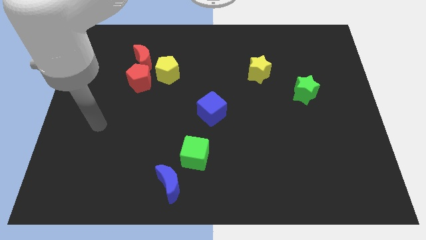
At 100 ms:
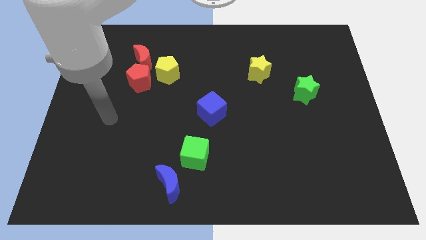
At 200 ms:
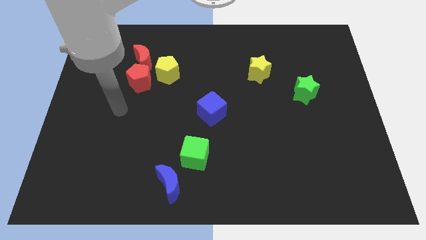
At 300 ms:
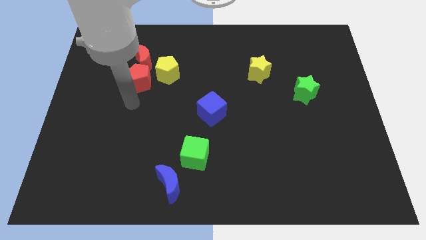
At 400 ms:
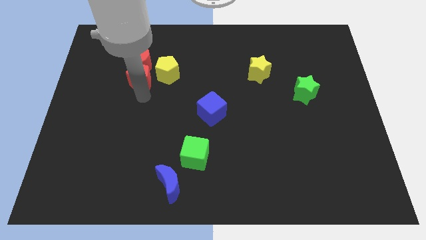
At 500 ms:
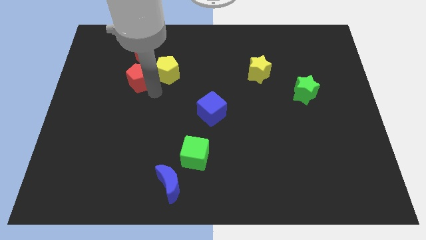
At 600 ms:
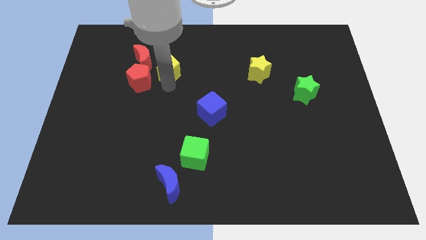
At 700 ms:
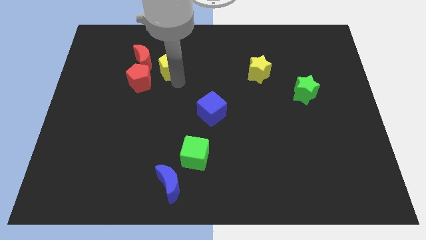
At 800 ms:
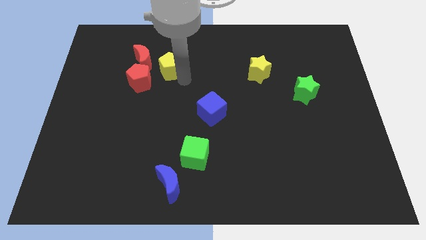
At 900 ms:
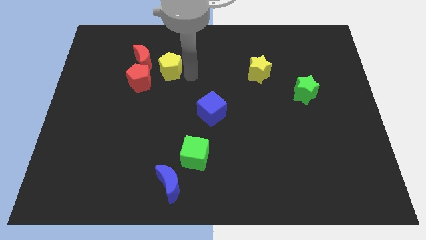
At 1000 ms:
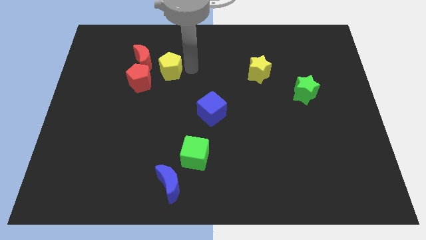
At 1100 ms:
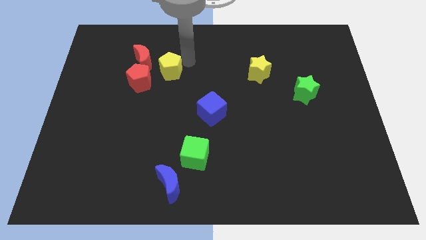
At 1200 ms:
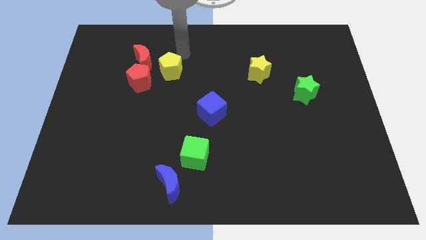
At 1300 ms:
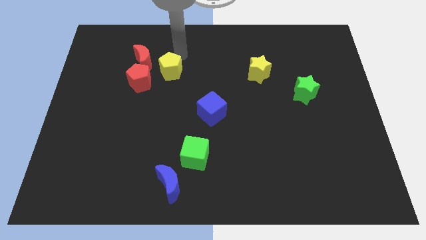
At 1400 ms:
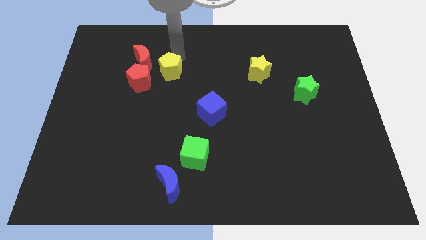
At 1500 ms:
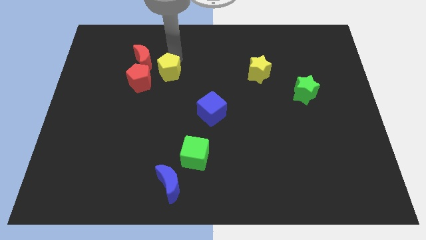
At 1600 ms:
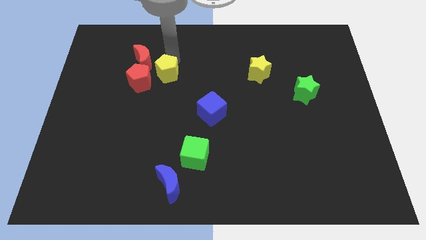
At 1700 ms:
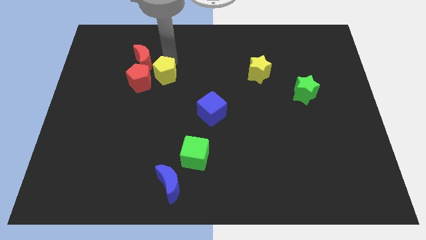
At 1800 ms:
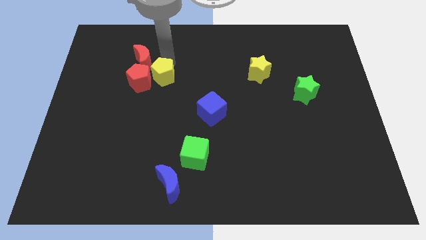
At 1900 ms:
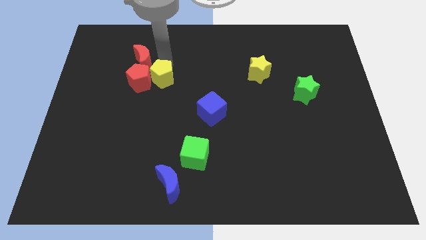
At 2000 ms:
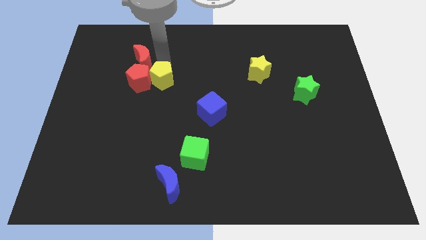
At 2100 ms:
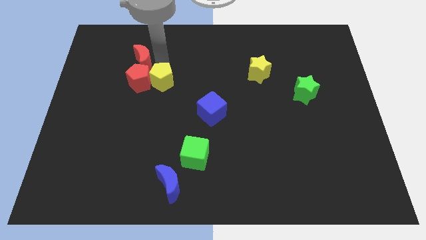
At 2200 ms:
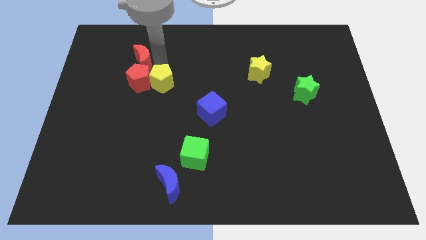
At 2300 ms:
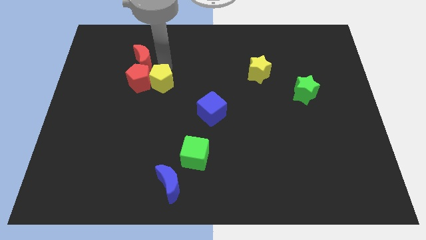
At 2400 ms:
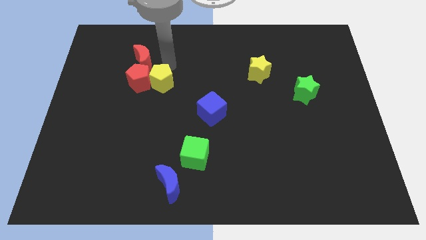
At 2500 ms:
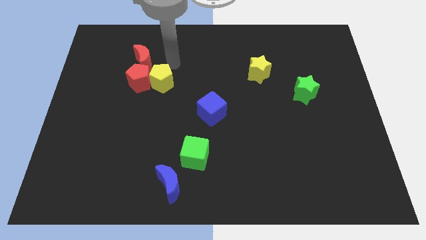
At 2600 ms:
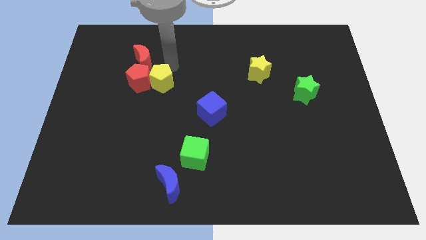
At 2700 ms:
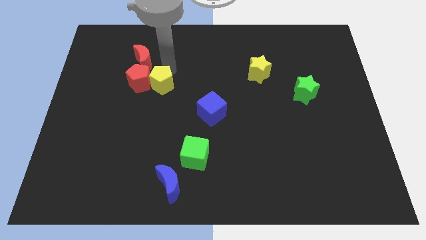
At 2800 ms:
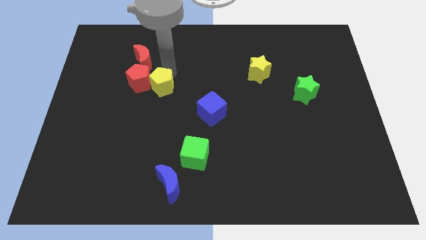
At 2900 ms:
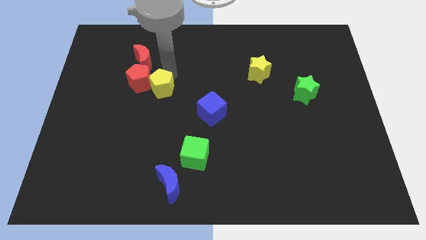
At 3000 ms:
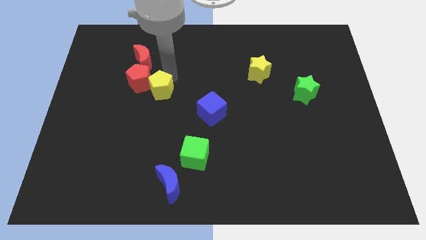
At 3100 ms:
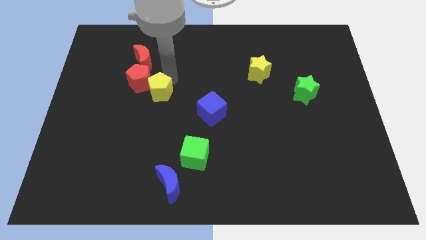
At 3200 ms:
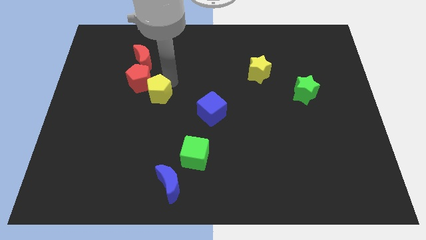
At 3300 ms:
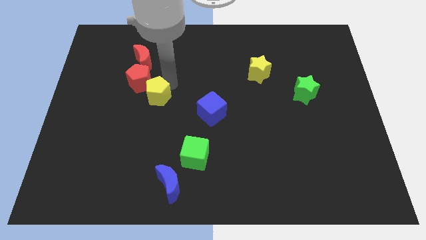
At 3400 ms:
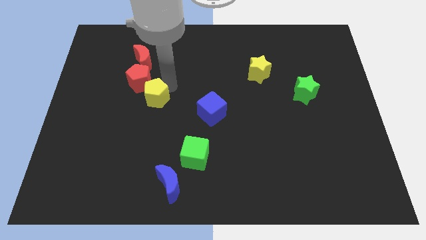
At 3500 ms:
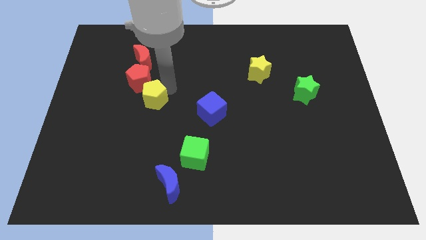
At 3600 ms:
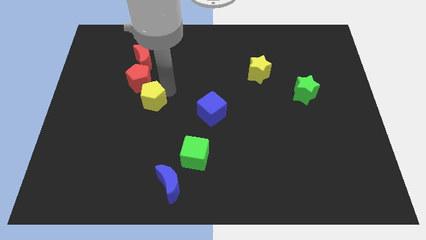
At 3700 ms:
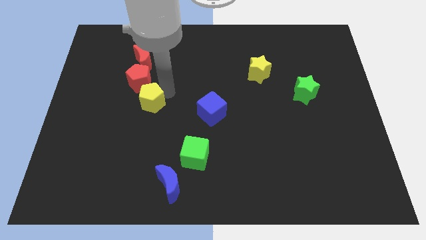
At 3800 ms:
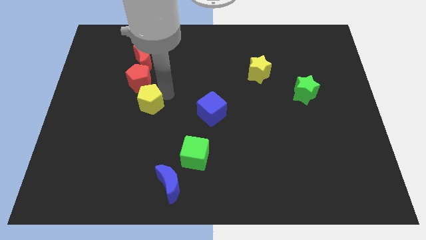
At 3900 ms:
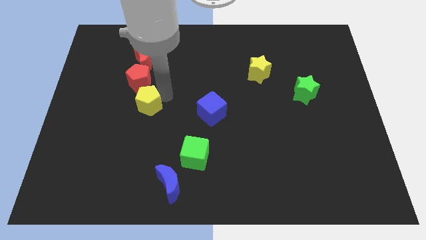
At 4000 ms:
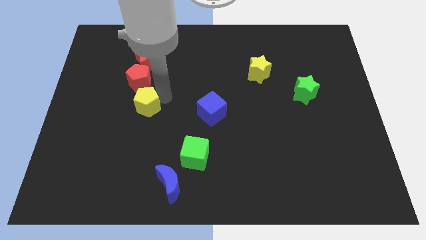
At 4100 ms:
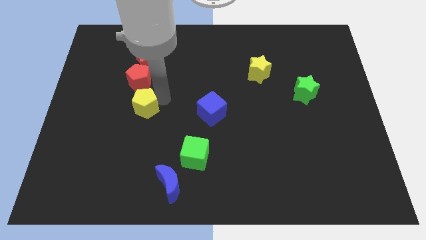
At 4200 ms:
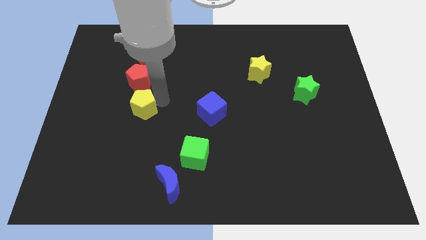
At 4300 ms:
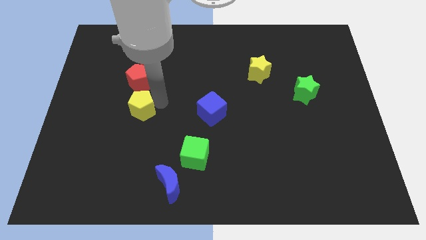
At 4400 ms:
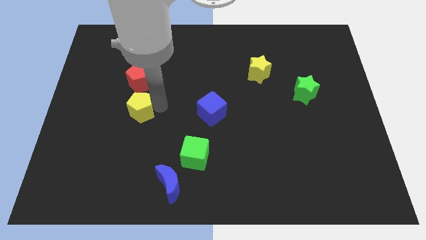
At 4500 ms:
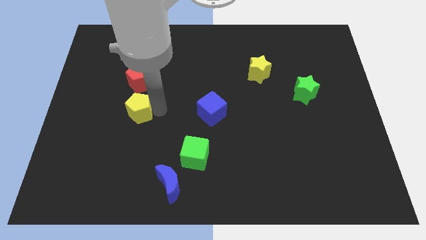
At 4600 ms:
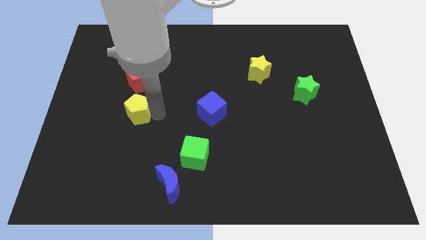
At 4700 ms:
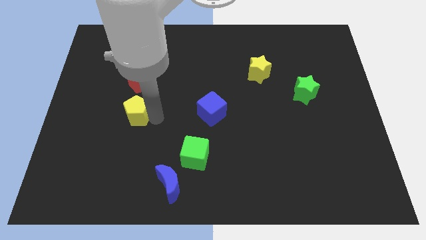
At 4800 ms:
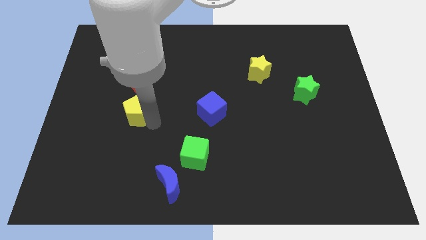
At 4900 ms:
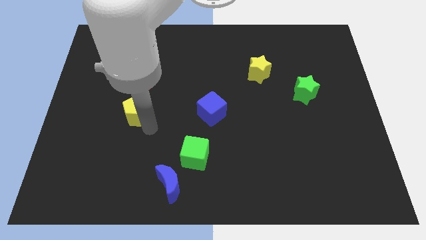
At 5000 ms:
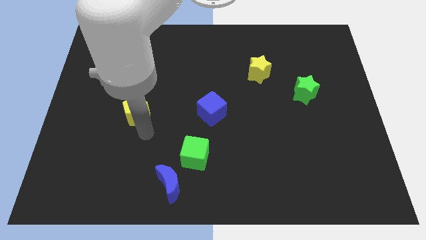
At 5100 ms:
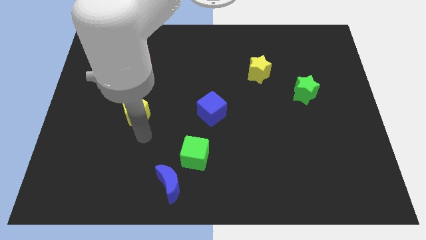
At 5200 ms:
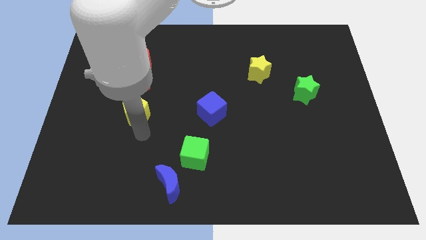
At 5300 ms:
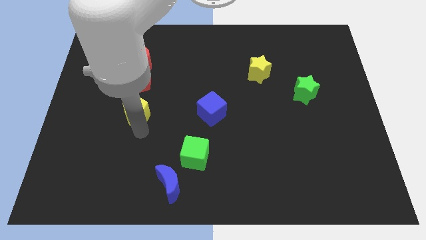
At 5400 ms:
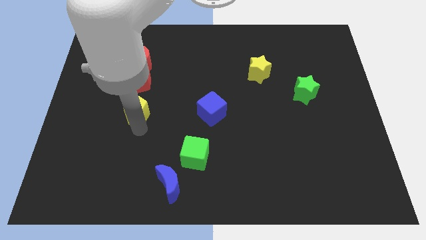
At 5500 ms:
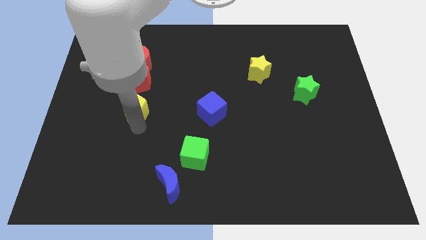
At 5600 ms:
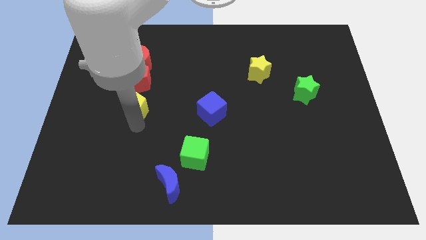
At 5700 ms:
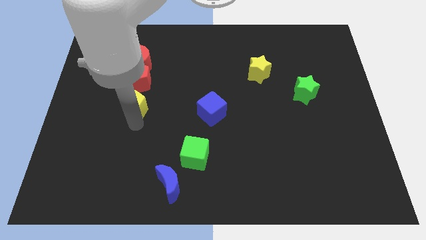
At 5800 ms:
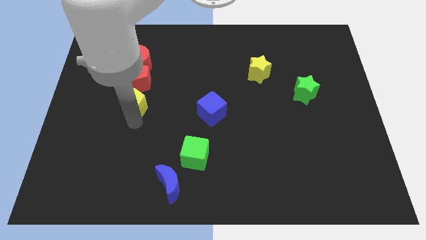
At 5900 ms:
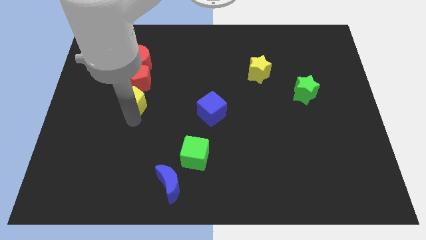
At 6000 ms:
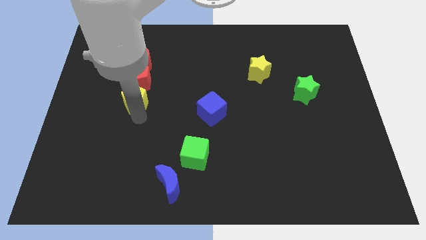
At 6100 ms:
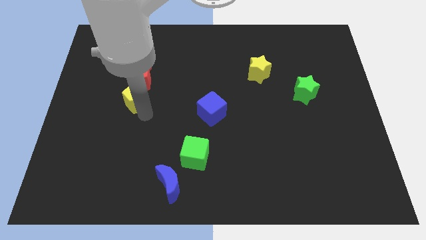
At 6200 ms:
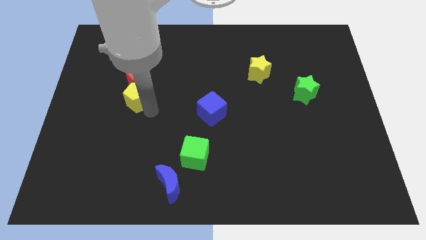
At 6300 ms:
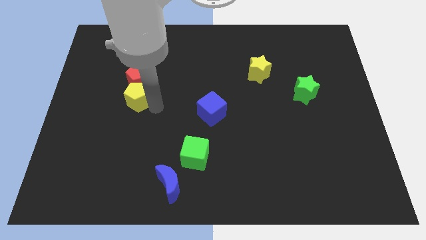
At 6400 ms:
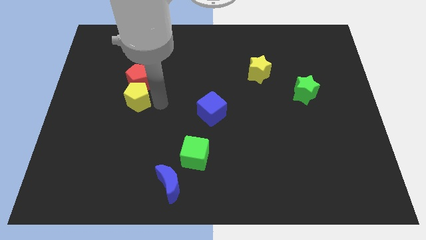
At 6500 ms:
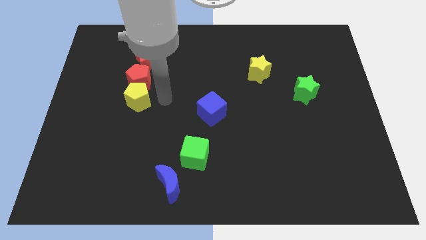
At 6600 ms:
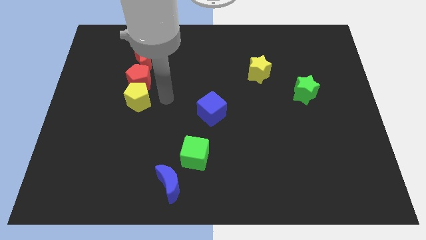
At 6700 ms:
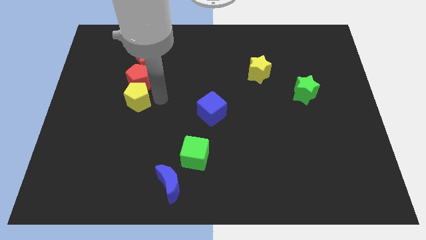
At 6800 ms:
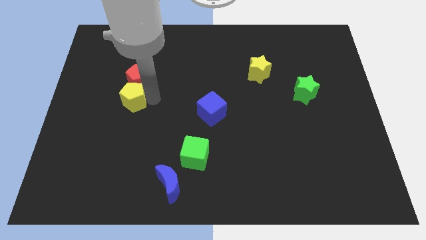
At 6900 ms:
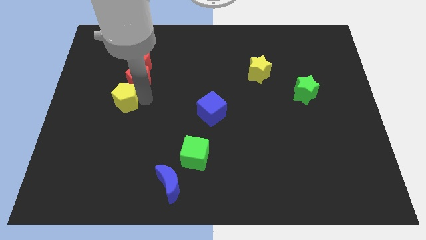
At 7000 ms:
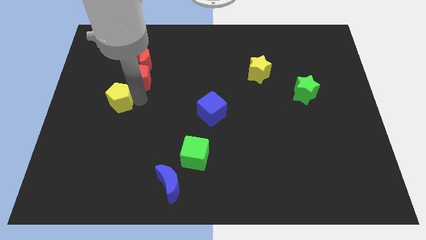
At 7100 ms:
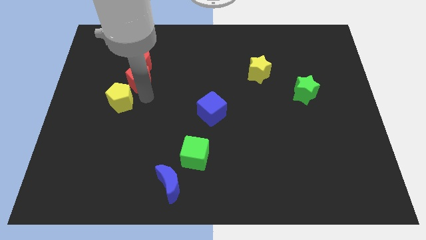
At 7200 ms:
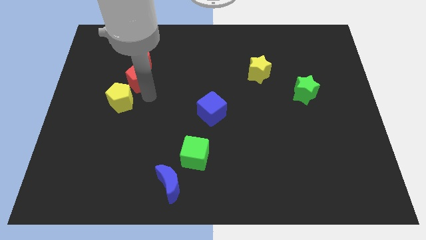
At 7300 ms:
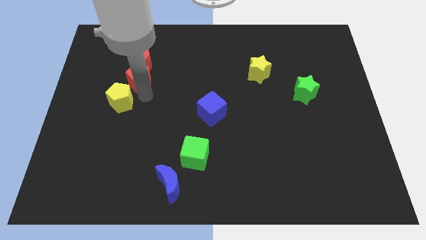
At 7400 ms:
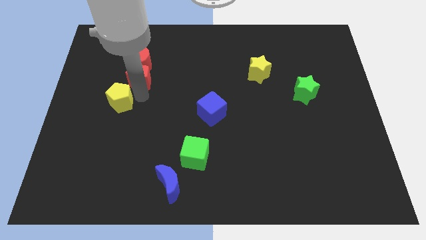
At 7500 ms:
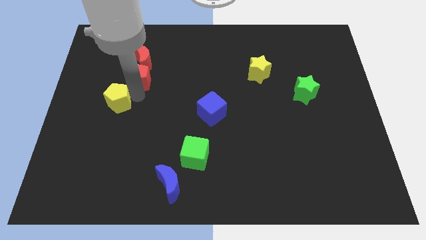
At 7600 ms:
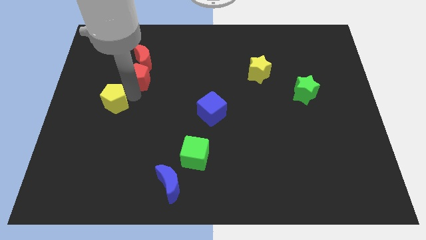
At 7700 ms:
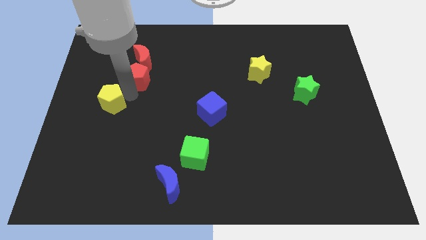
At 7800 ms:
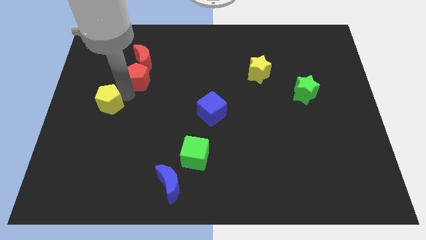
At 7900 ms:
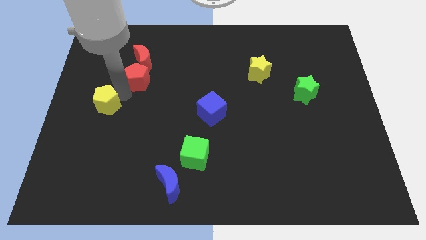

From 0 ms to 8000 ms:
move the yellow pentagon to the left side of the board
